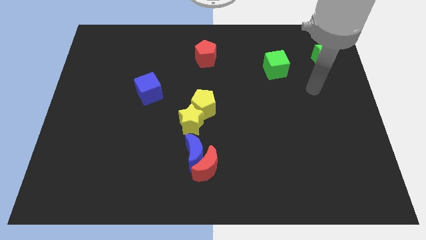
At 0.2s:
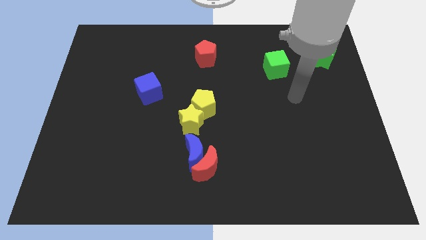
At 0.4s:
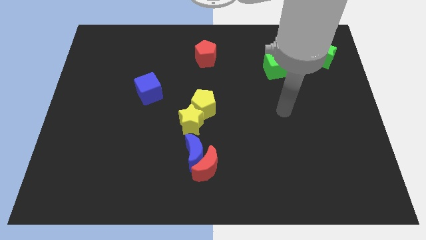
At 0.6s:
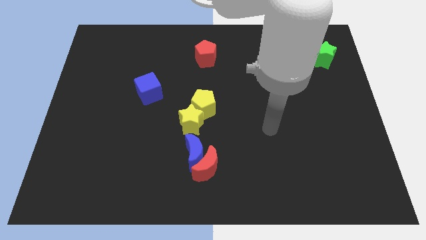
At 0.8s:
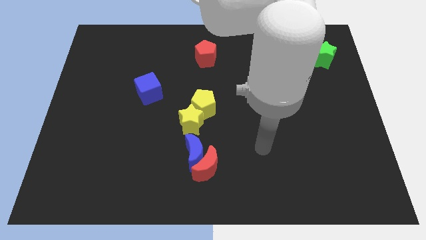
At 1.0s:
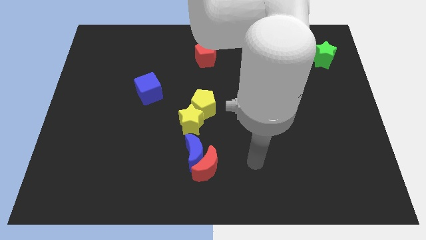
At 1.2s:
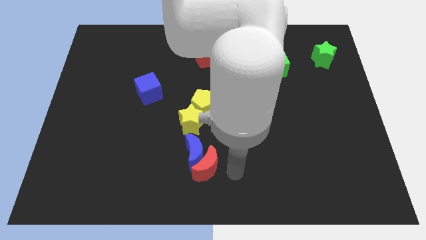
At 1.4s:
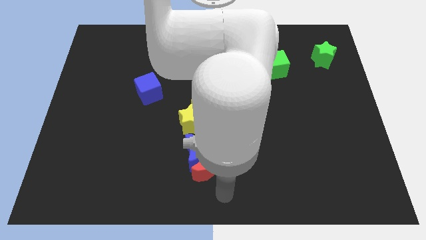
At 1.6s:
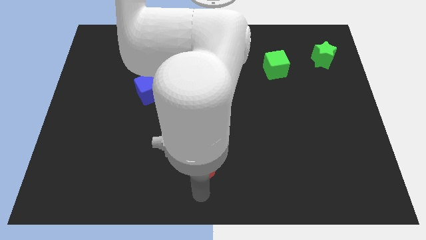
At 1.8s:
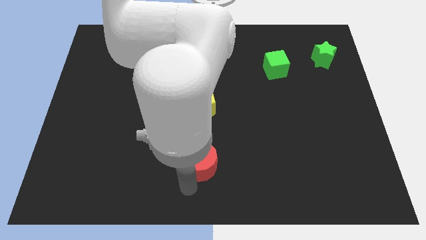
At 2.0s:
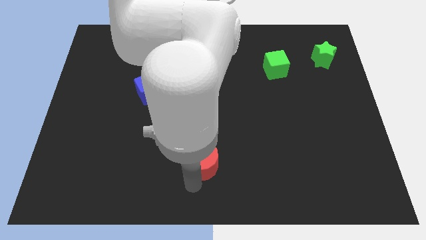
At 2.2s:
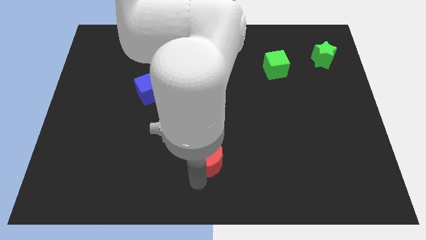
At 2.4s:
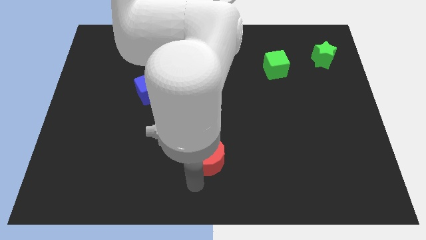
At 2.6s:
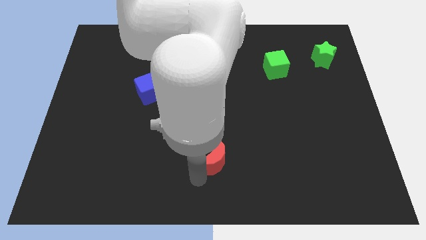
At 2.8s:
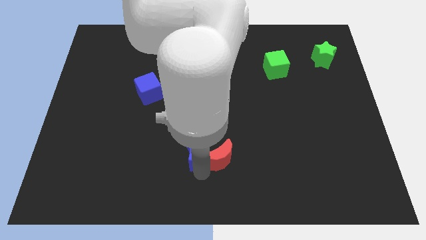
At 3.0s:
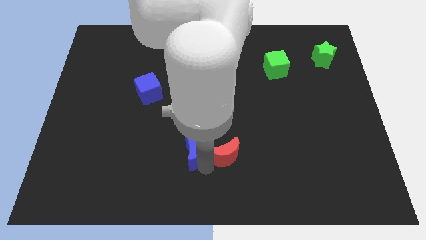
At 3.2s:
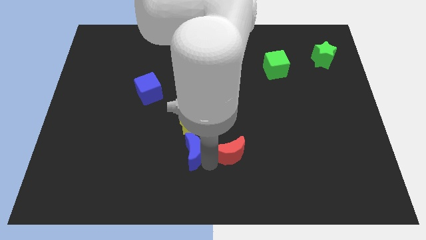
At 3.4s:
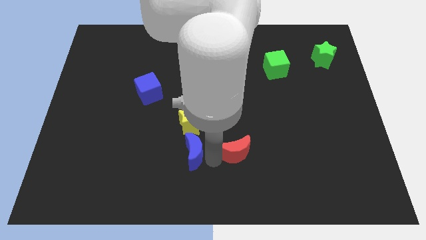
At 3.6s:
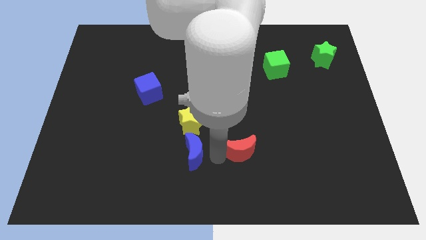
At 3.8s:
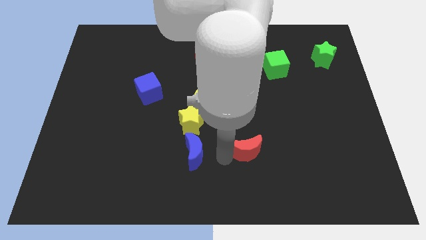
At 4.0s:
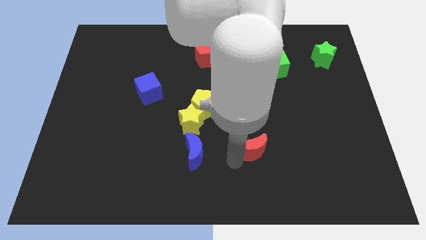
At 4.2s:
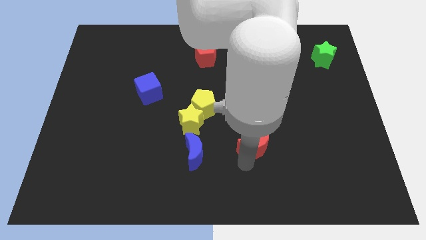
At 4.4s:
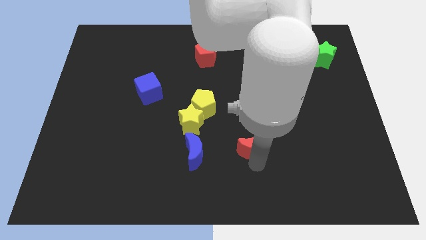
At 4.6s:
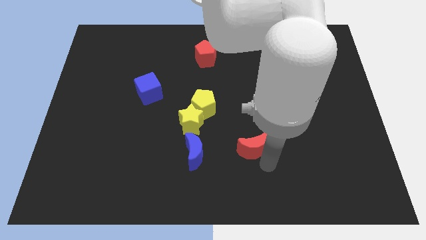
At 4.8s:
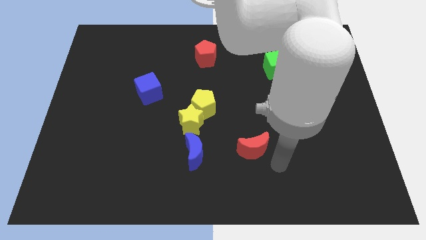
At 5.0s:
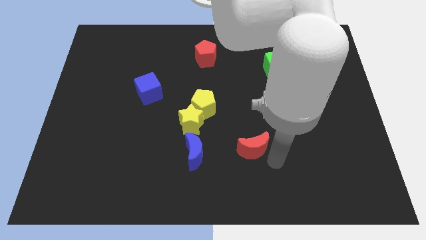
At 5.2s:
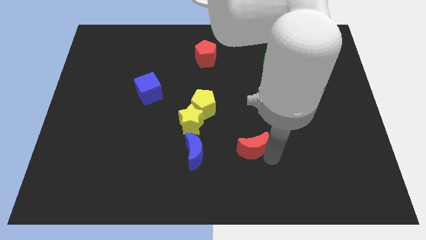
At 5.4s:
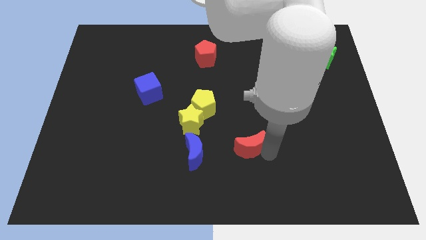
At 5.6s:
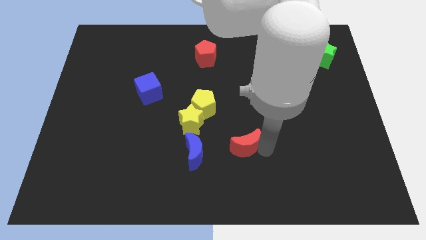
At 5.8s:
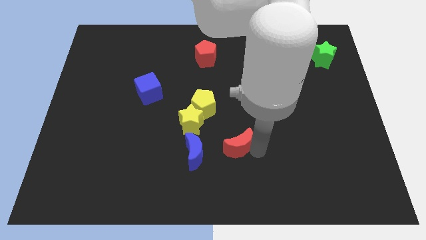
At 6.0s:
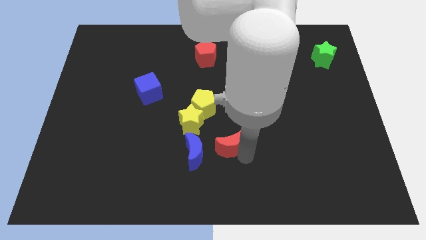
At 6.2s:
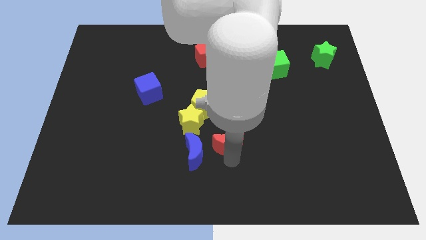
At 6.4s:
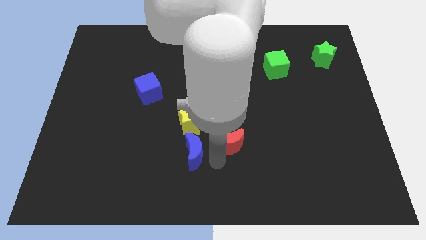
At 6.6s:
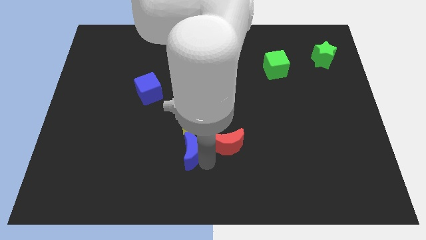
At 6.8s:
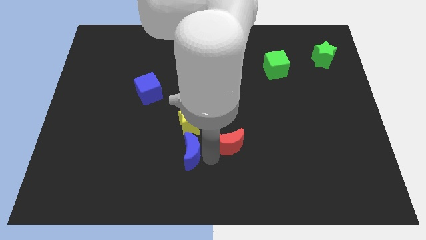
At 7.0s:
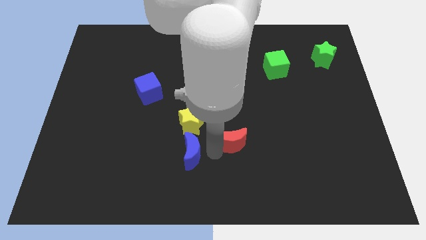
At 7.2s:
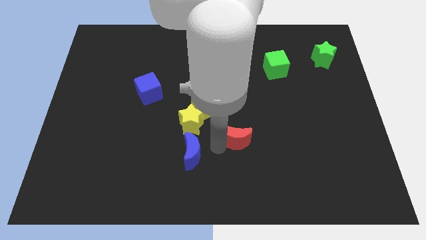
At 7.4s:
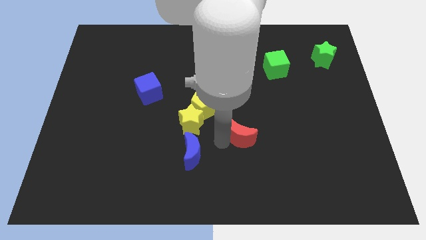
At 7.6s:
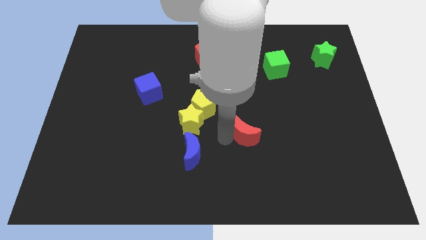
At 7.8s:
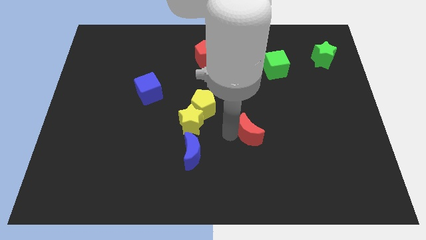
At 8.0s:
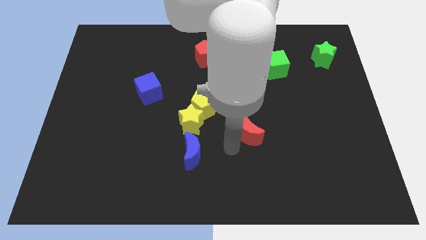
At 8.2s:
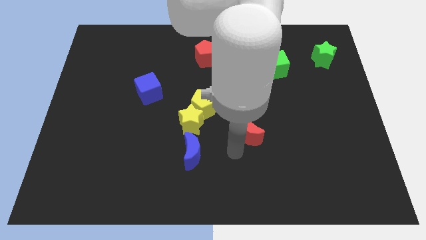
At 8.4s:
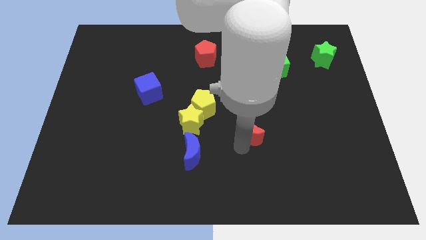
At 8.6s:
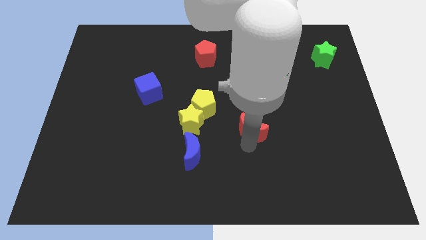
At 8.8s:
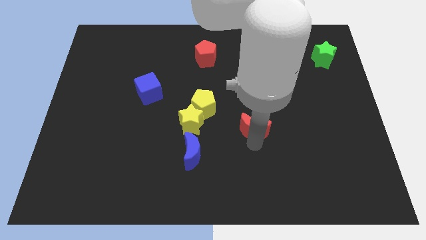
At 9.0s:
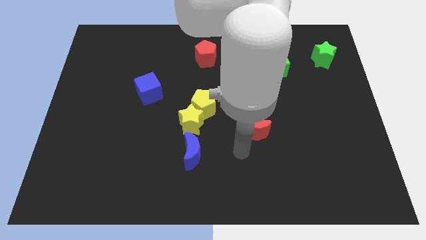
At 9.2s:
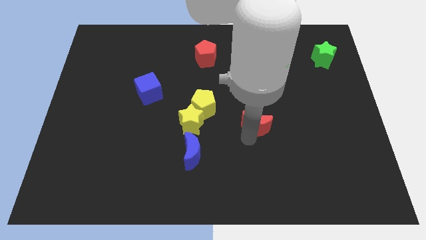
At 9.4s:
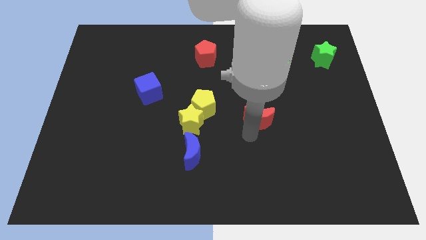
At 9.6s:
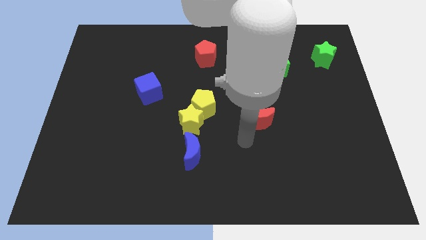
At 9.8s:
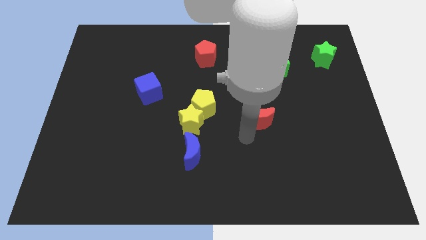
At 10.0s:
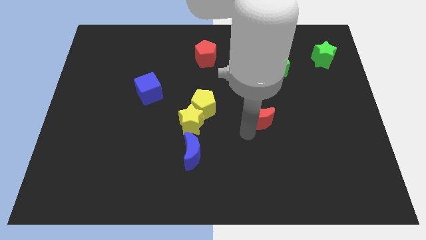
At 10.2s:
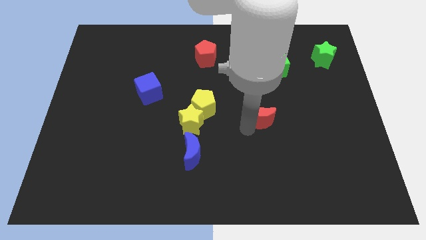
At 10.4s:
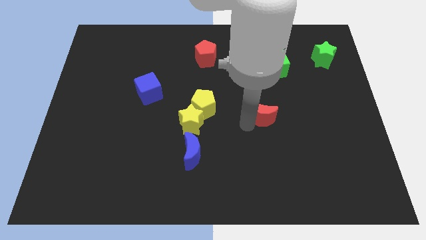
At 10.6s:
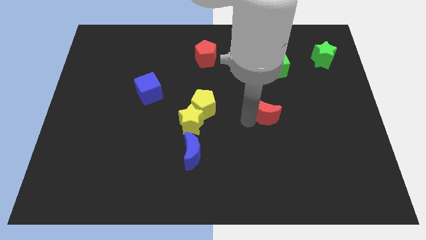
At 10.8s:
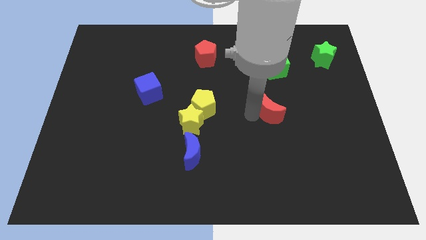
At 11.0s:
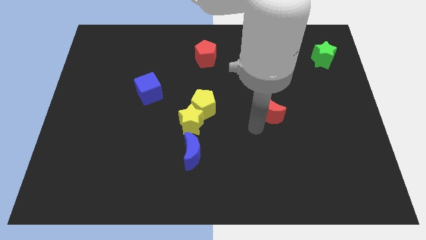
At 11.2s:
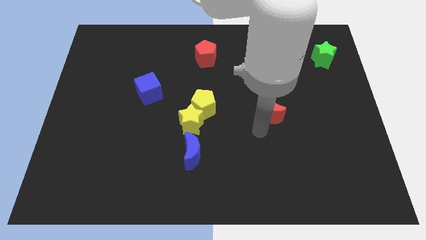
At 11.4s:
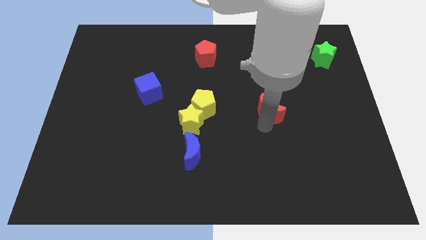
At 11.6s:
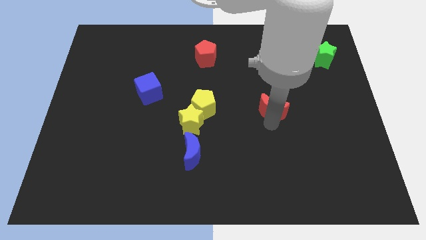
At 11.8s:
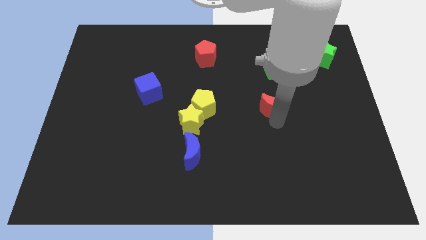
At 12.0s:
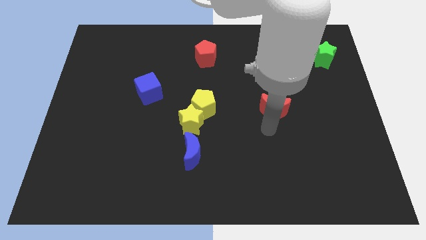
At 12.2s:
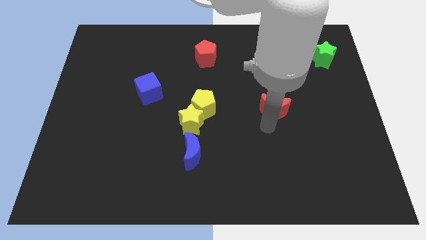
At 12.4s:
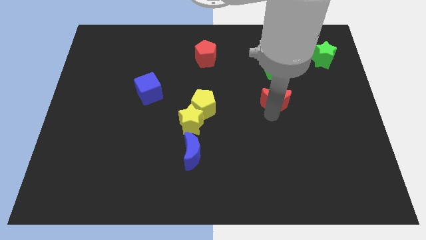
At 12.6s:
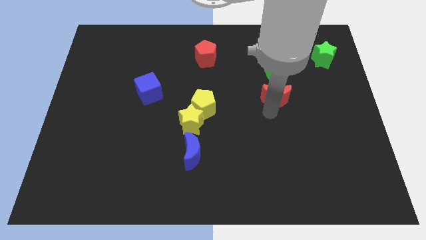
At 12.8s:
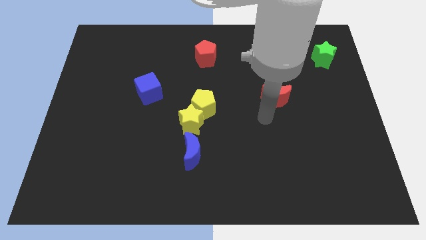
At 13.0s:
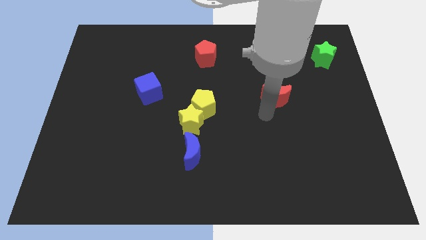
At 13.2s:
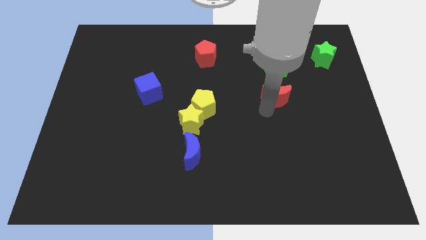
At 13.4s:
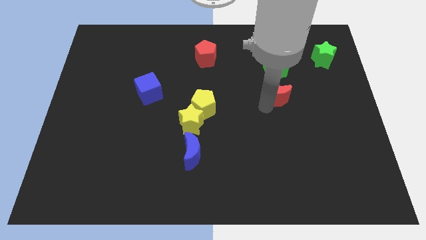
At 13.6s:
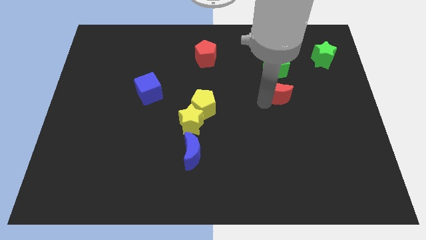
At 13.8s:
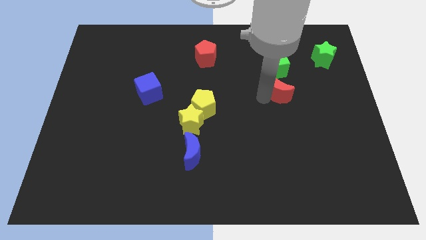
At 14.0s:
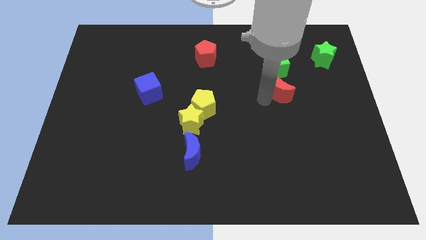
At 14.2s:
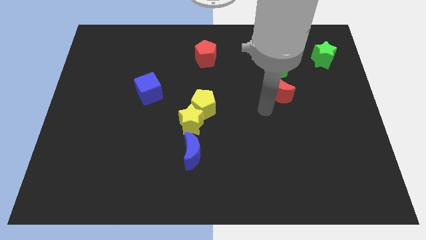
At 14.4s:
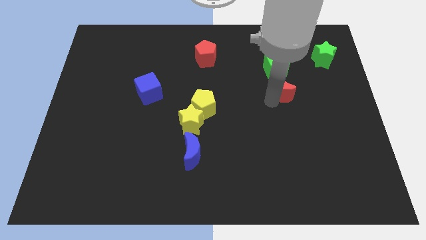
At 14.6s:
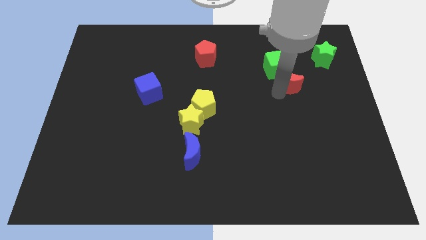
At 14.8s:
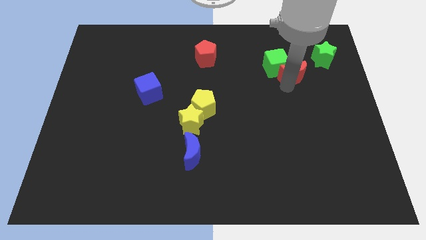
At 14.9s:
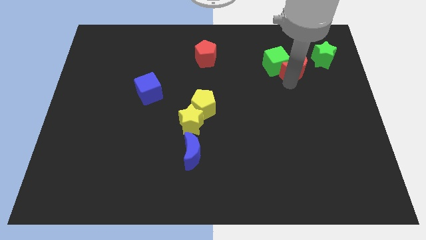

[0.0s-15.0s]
slide the red moon to the left side of the green star
